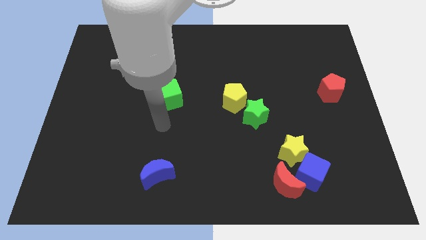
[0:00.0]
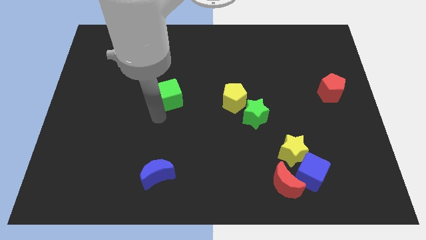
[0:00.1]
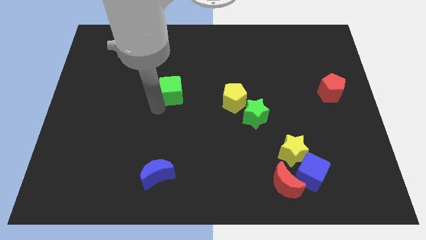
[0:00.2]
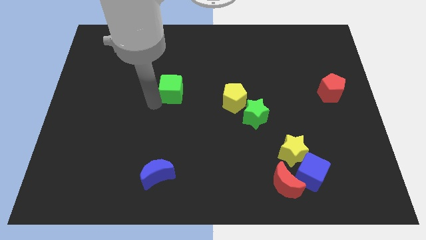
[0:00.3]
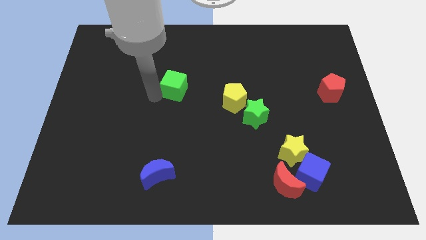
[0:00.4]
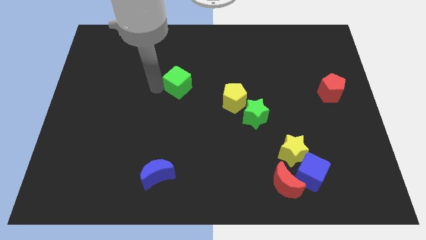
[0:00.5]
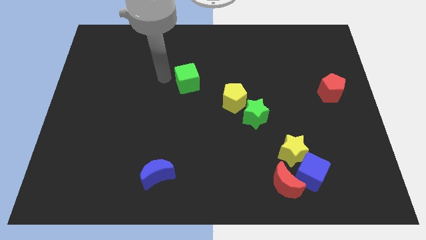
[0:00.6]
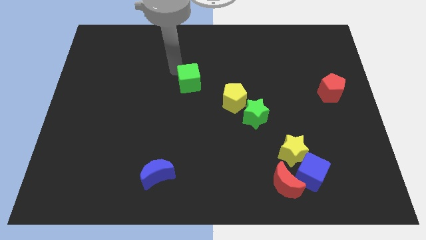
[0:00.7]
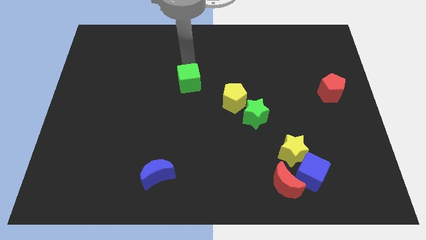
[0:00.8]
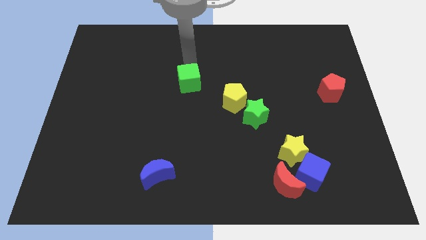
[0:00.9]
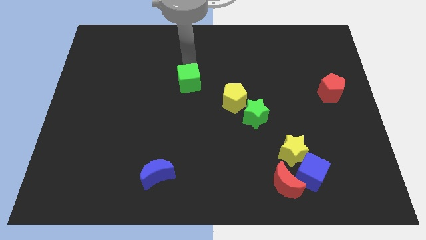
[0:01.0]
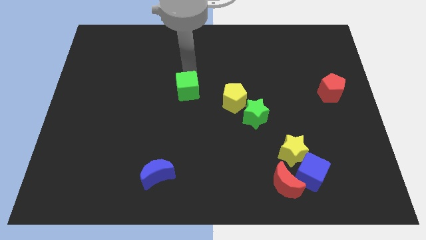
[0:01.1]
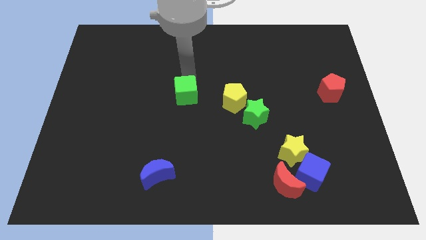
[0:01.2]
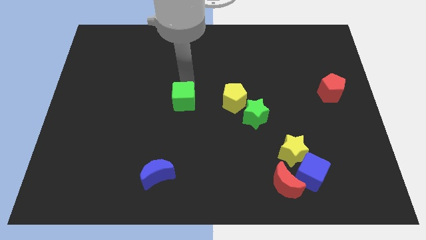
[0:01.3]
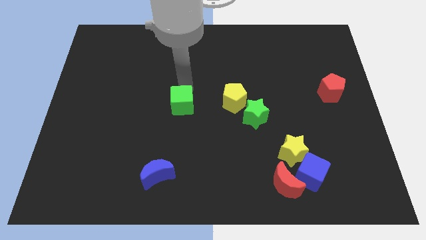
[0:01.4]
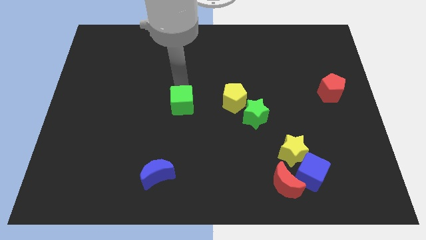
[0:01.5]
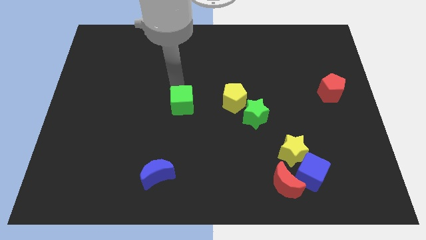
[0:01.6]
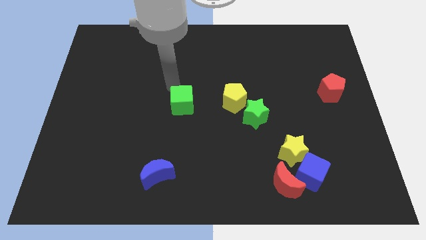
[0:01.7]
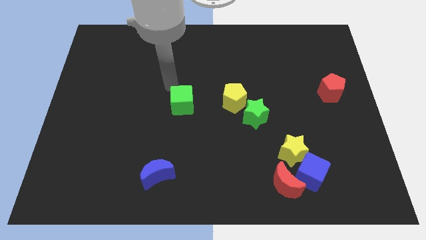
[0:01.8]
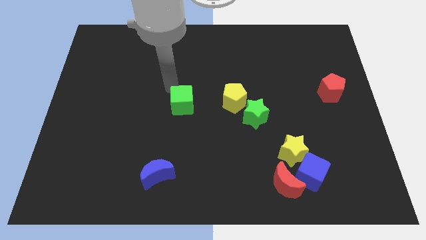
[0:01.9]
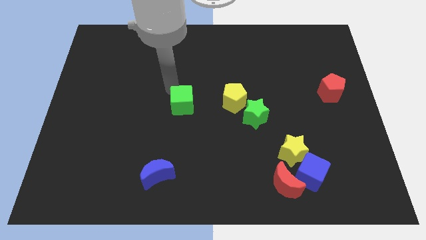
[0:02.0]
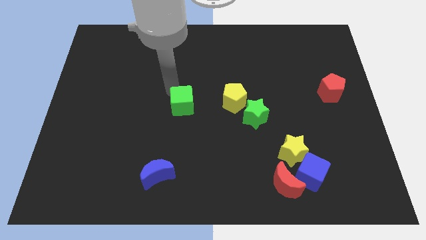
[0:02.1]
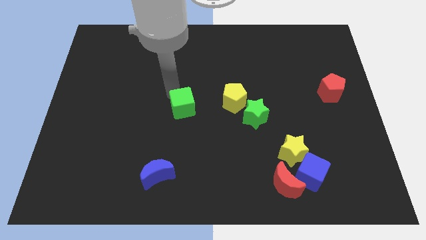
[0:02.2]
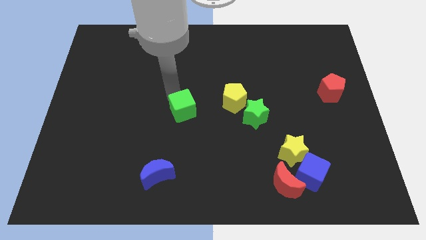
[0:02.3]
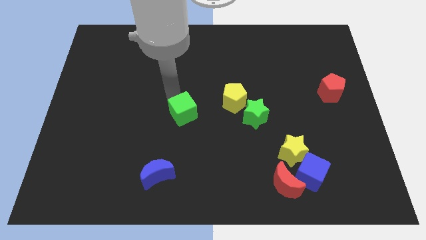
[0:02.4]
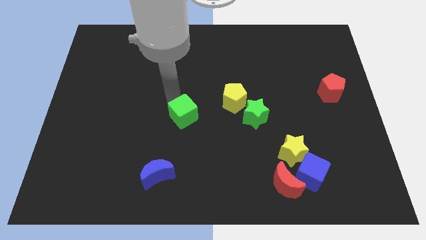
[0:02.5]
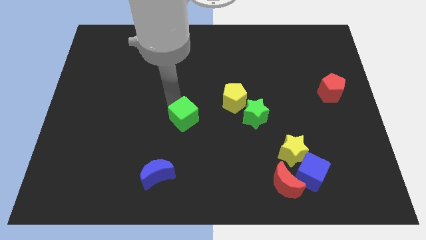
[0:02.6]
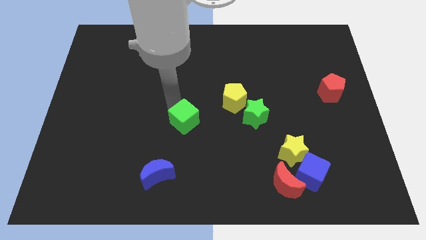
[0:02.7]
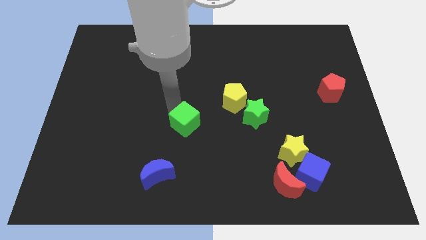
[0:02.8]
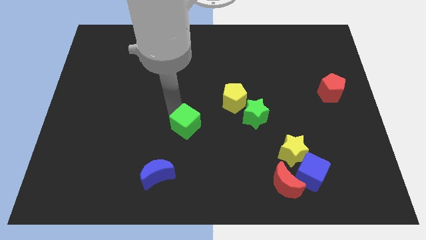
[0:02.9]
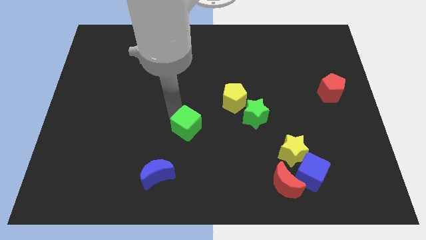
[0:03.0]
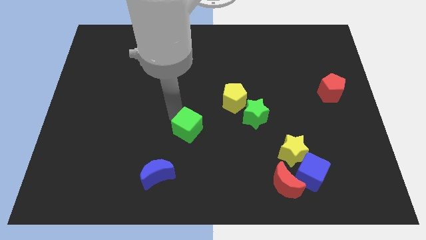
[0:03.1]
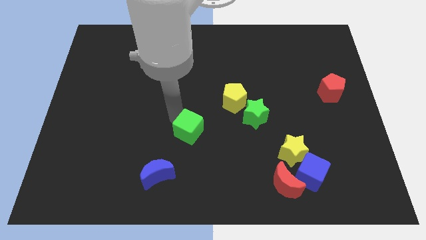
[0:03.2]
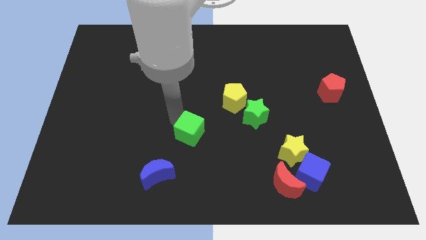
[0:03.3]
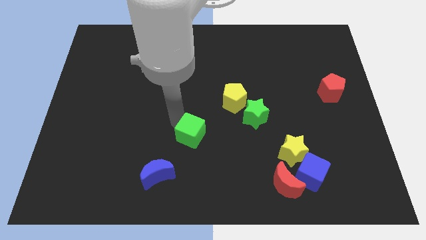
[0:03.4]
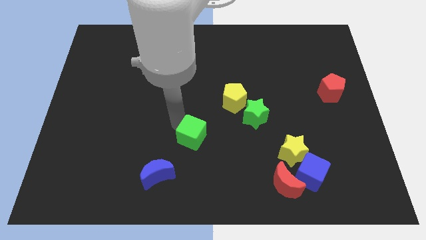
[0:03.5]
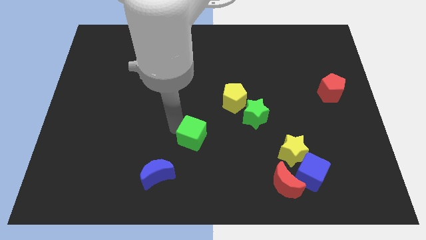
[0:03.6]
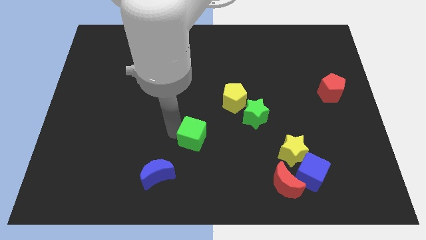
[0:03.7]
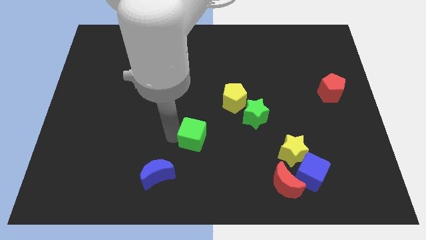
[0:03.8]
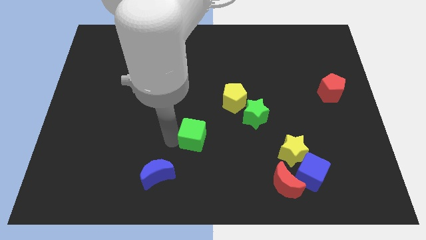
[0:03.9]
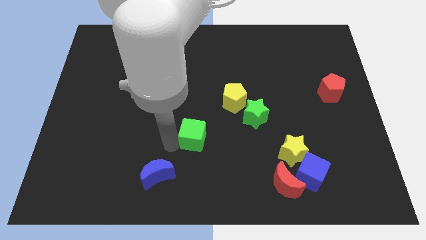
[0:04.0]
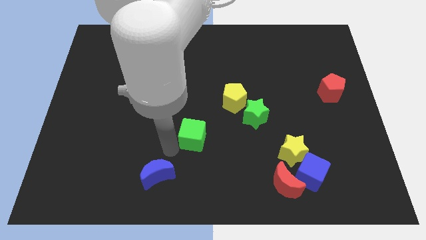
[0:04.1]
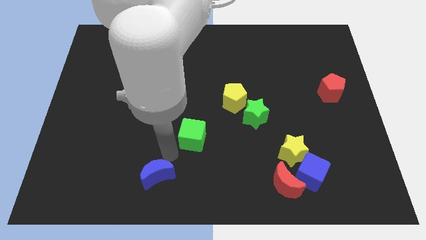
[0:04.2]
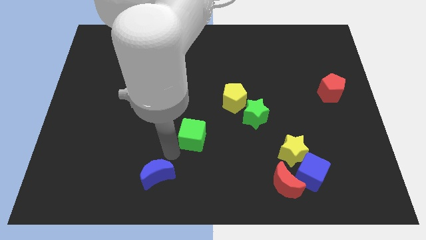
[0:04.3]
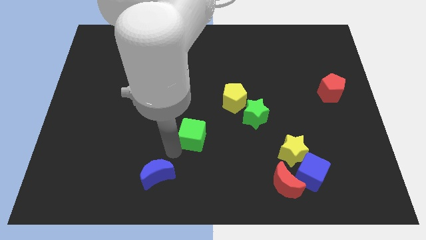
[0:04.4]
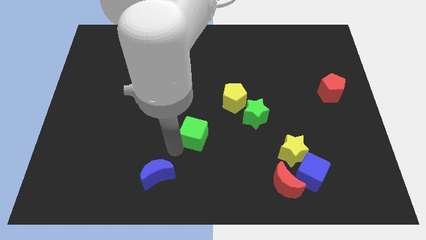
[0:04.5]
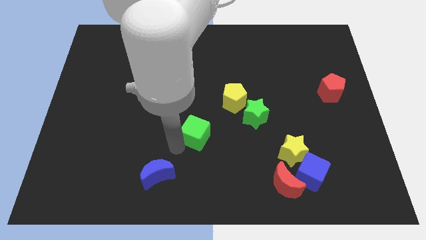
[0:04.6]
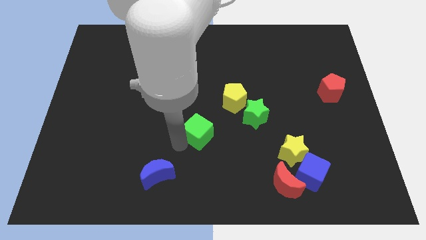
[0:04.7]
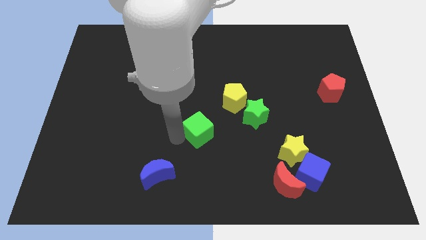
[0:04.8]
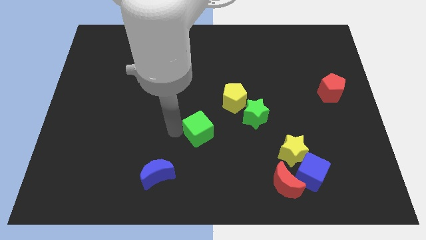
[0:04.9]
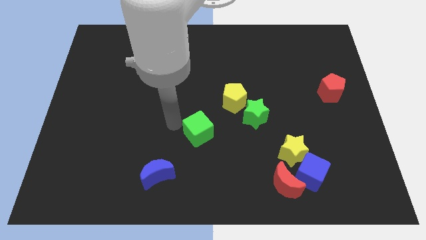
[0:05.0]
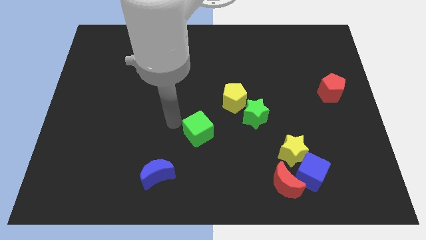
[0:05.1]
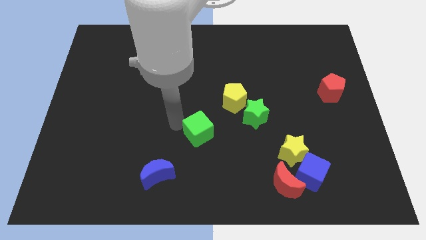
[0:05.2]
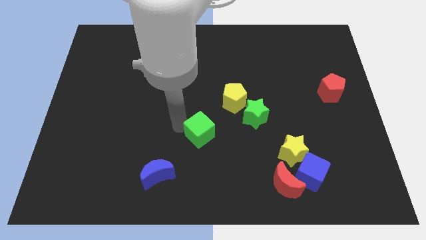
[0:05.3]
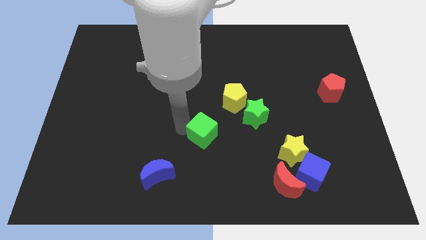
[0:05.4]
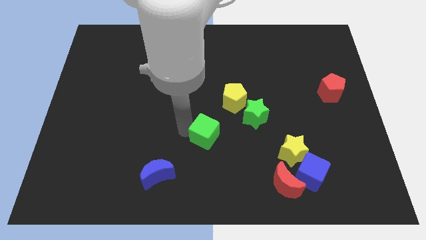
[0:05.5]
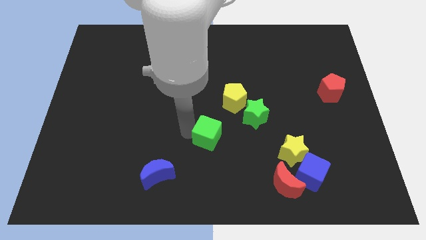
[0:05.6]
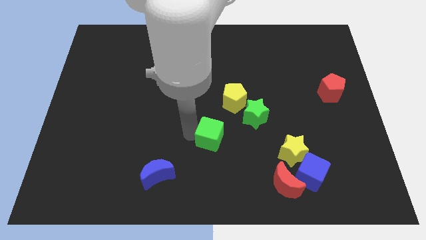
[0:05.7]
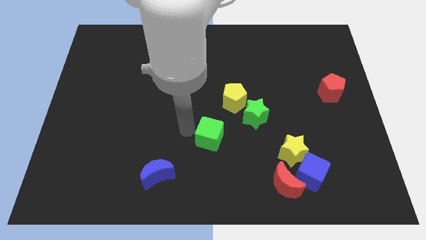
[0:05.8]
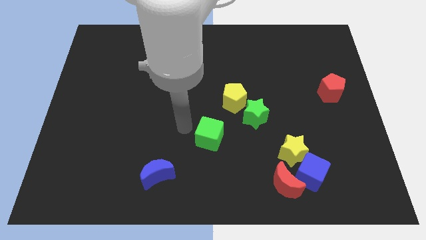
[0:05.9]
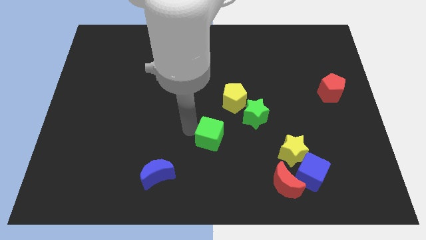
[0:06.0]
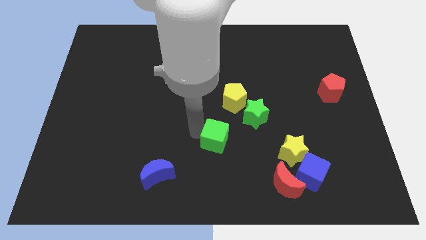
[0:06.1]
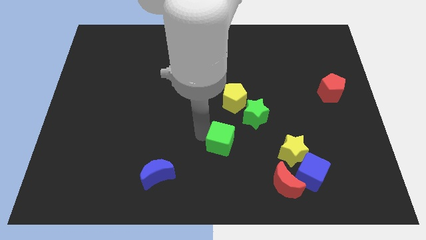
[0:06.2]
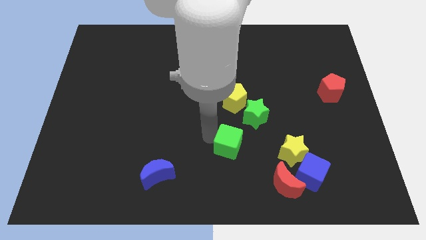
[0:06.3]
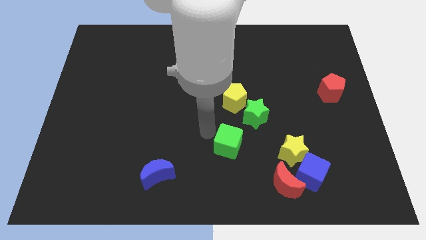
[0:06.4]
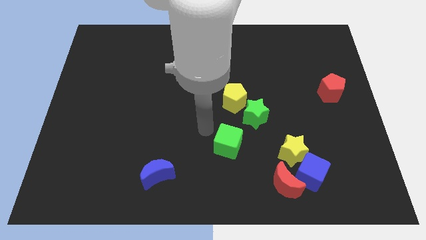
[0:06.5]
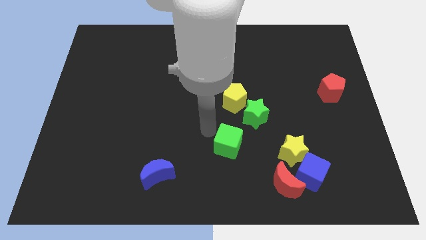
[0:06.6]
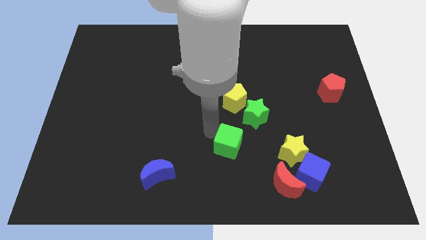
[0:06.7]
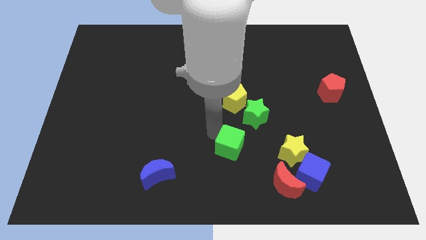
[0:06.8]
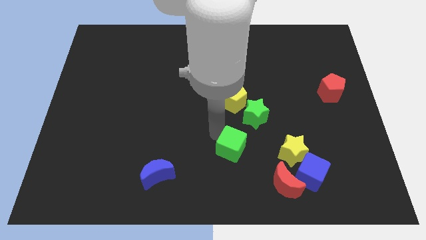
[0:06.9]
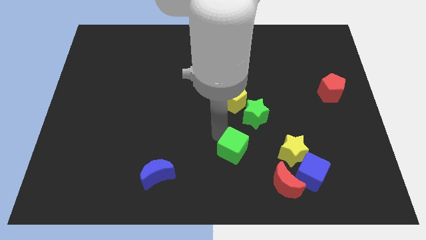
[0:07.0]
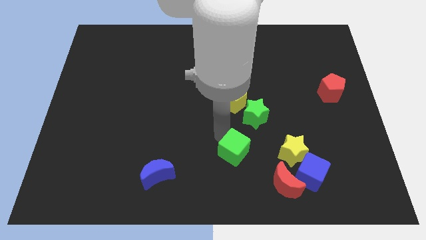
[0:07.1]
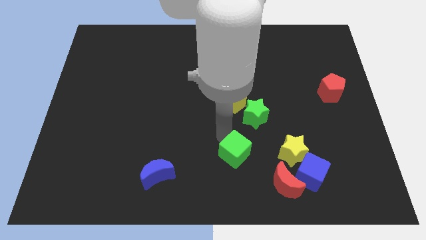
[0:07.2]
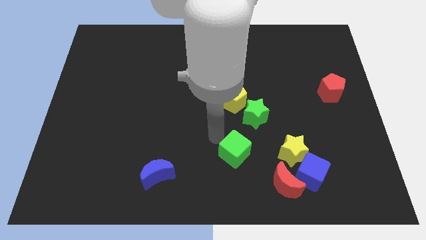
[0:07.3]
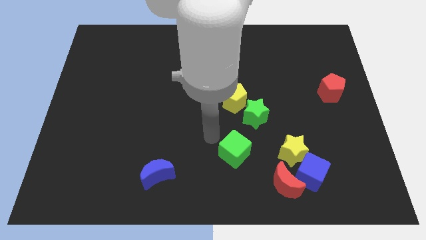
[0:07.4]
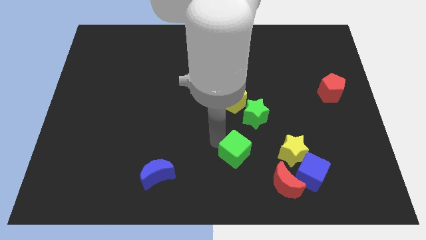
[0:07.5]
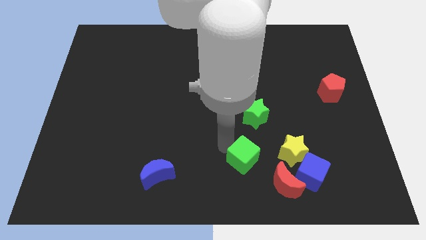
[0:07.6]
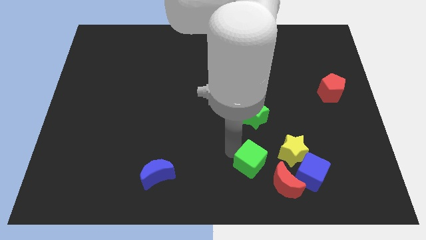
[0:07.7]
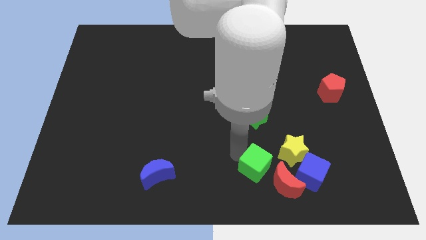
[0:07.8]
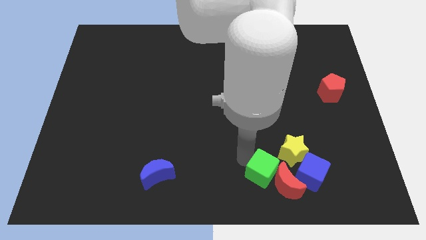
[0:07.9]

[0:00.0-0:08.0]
put the green cube towards the red moon
